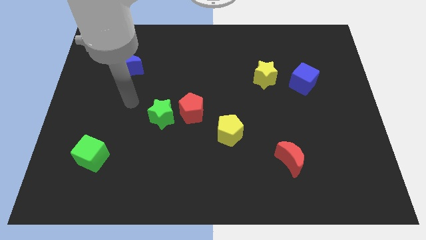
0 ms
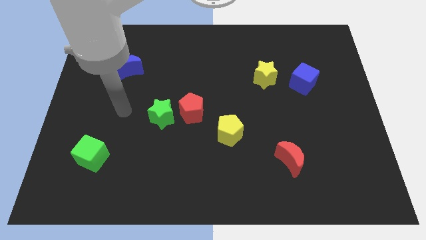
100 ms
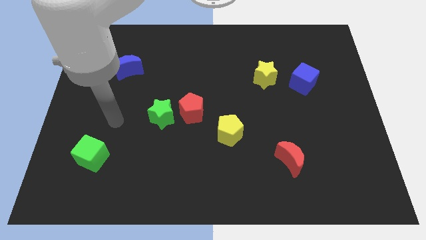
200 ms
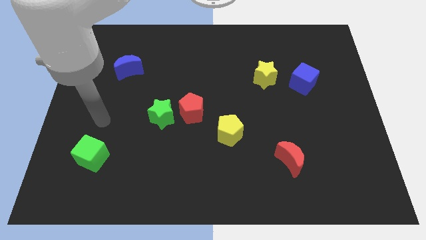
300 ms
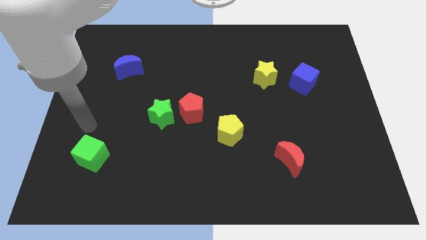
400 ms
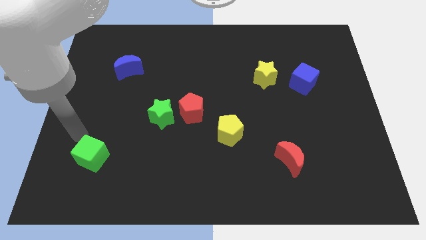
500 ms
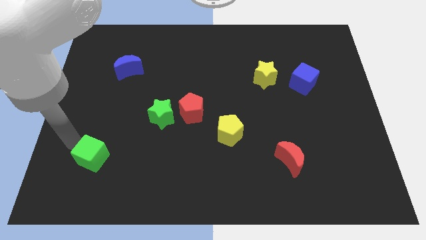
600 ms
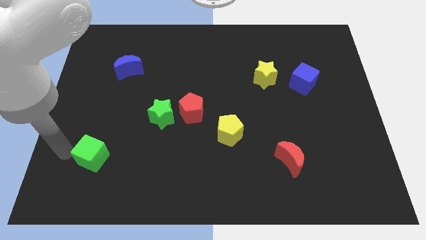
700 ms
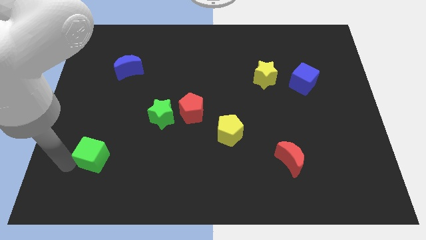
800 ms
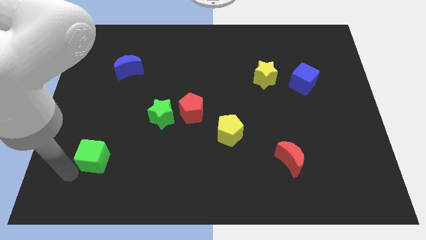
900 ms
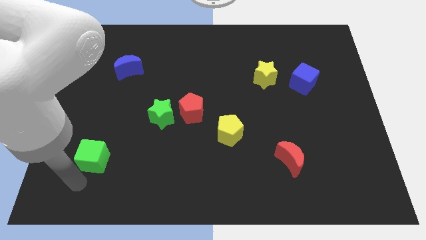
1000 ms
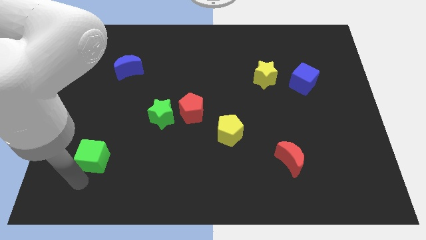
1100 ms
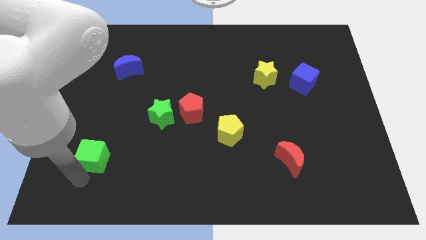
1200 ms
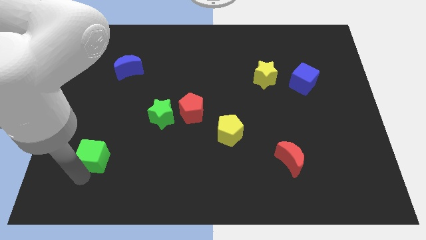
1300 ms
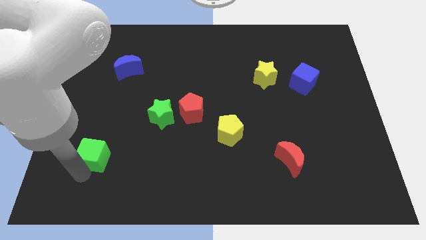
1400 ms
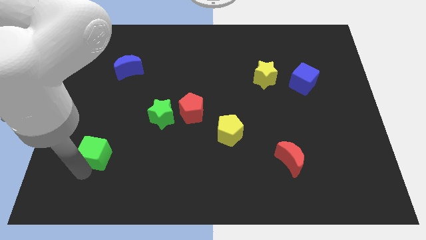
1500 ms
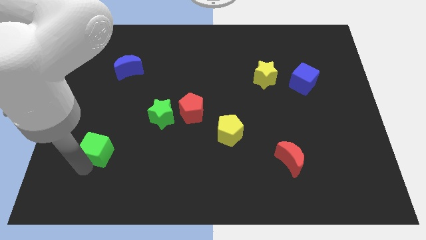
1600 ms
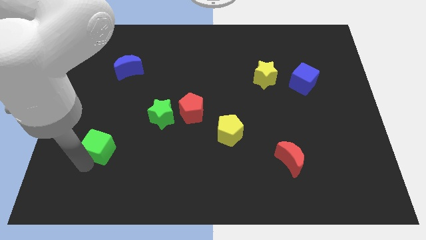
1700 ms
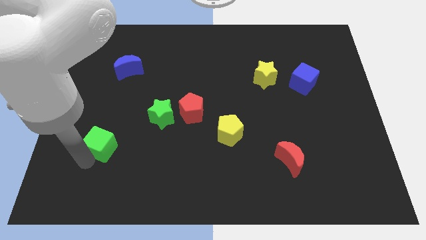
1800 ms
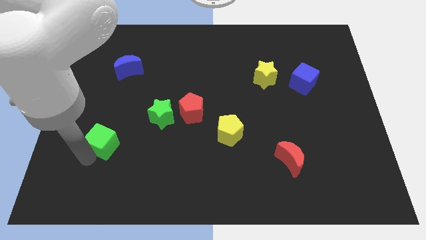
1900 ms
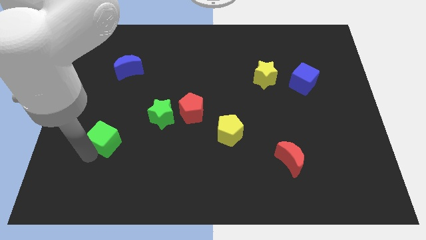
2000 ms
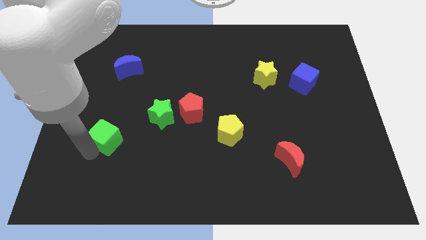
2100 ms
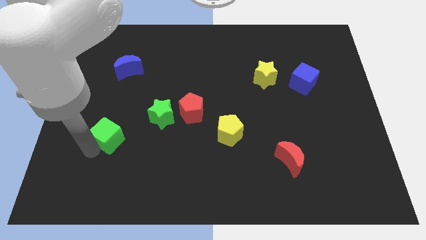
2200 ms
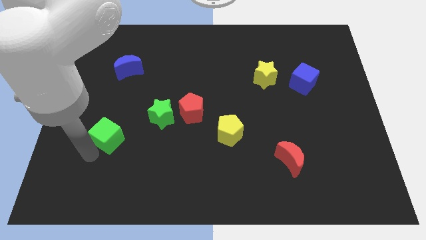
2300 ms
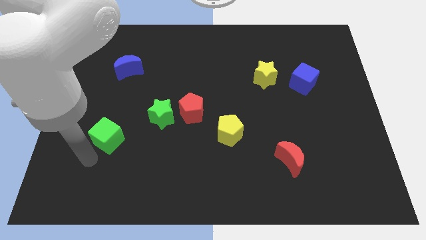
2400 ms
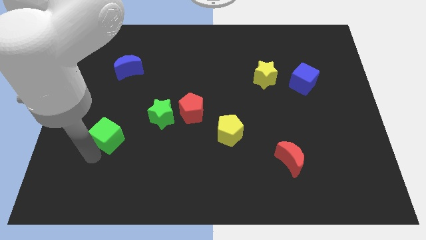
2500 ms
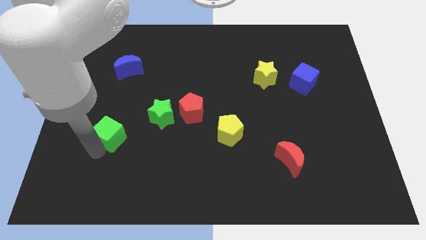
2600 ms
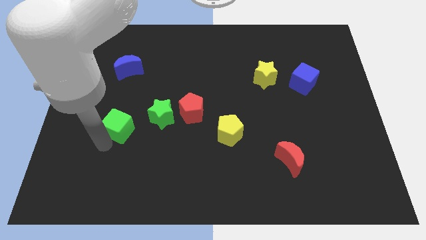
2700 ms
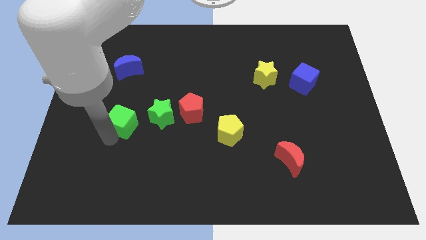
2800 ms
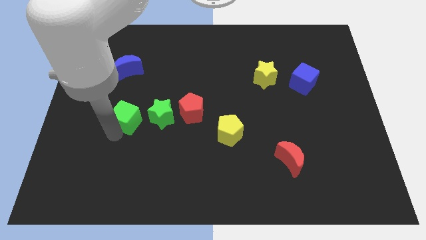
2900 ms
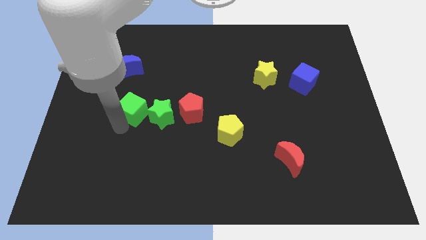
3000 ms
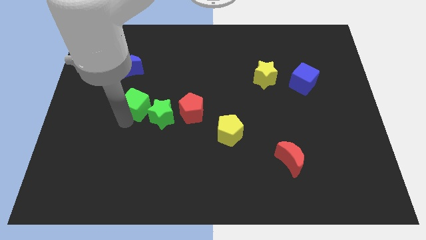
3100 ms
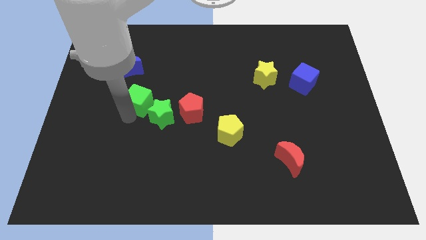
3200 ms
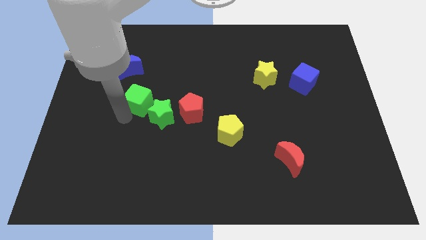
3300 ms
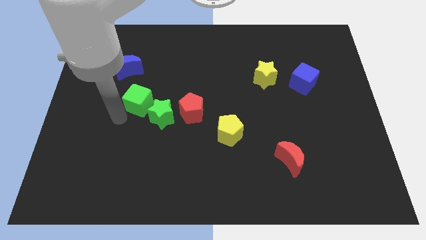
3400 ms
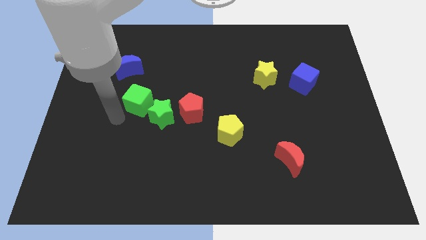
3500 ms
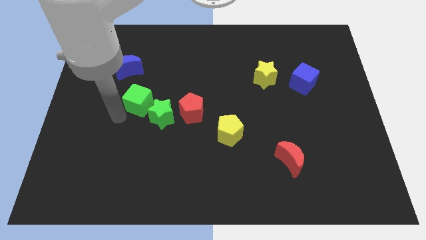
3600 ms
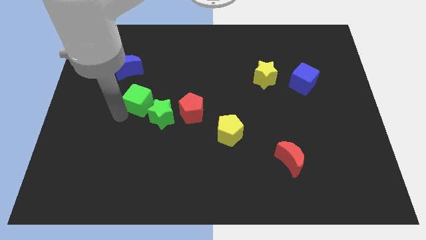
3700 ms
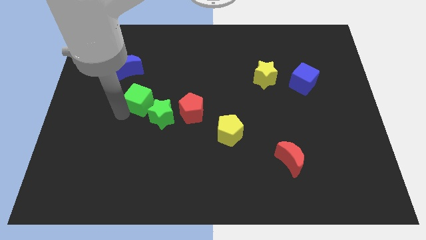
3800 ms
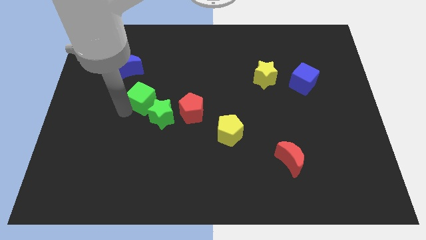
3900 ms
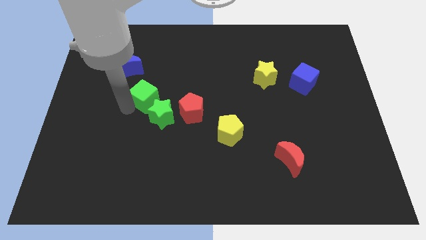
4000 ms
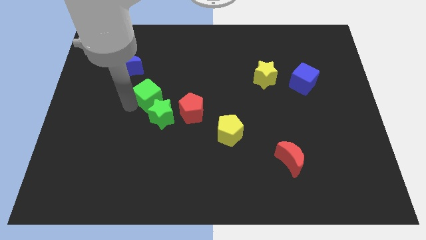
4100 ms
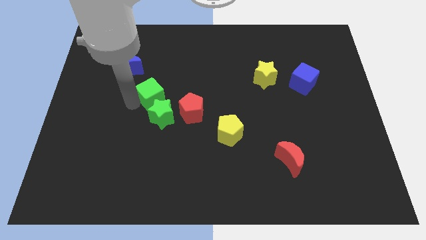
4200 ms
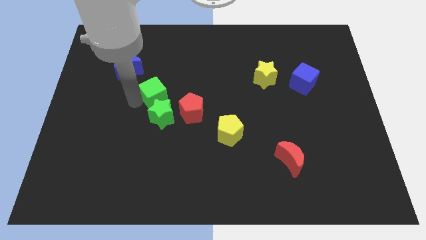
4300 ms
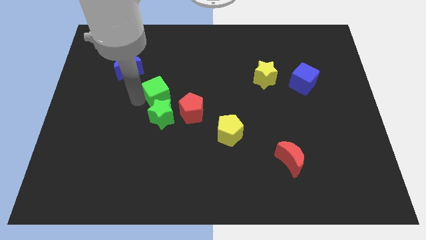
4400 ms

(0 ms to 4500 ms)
slide the green cube diagonally upwards and right

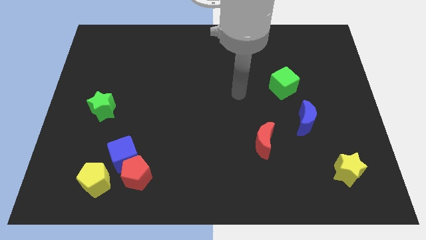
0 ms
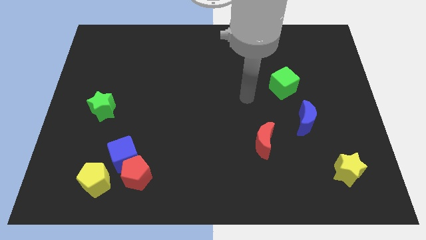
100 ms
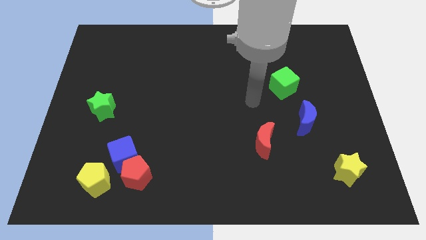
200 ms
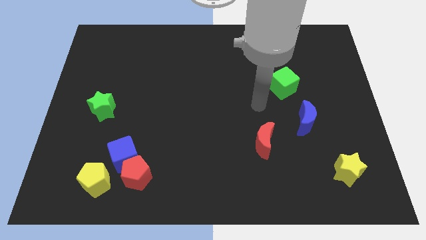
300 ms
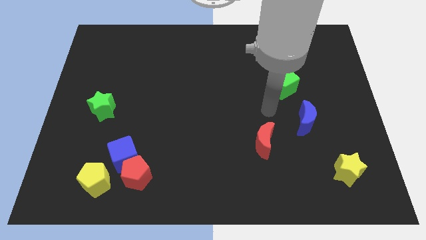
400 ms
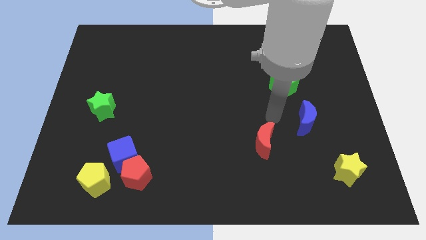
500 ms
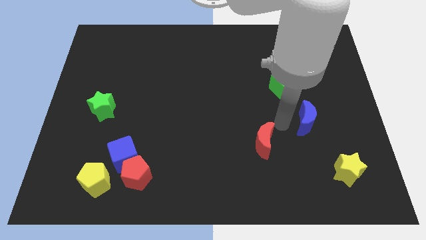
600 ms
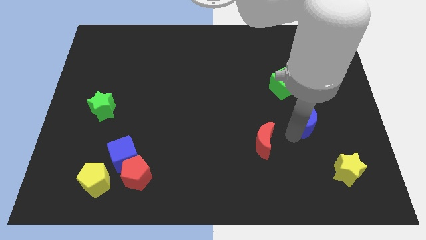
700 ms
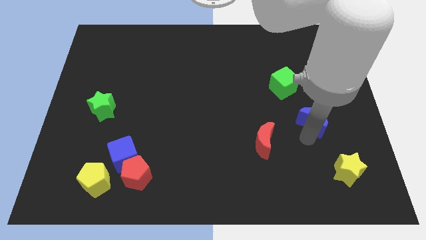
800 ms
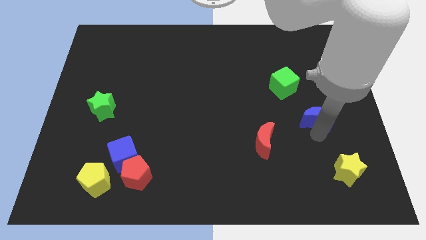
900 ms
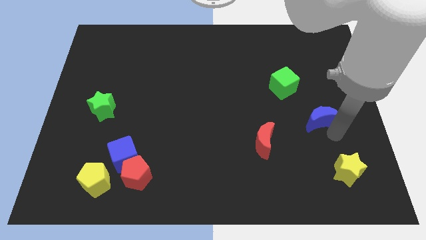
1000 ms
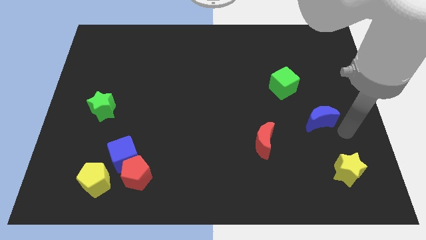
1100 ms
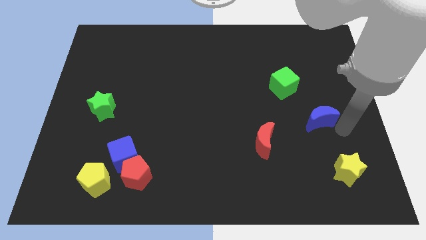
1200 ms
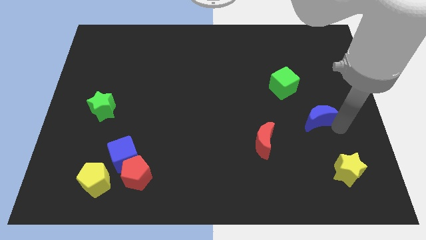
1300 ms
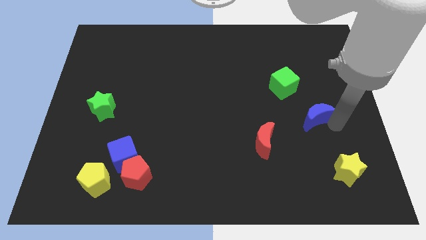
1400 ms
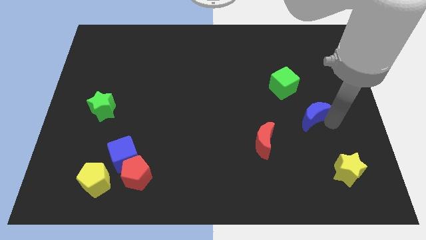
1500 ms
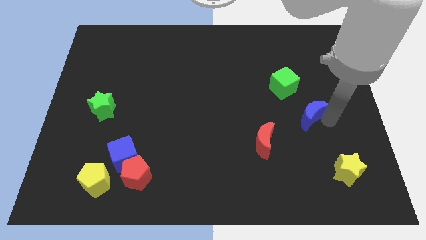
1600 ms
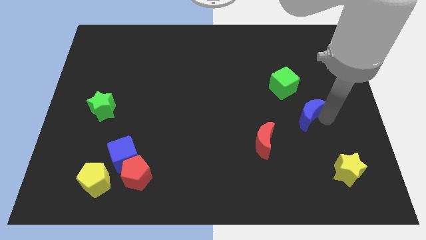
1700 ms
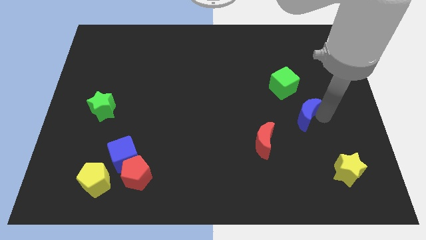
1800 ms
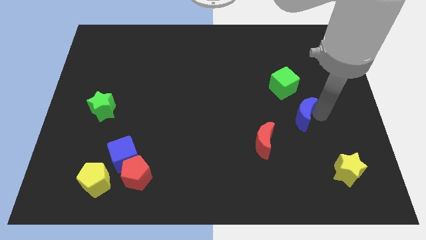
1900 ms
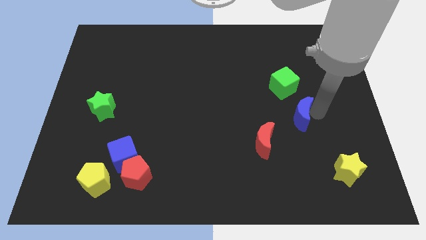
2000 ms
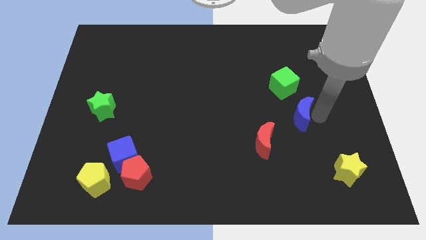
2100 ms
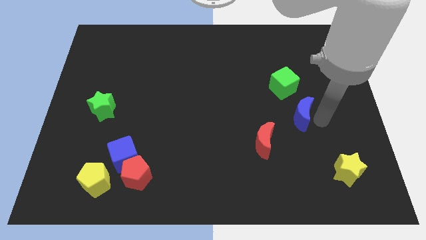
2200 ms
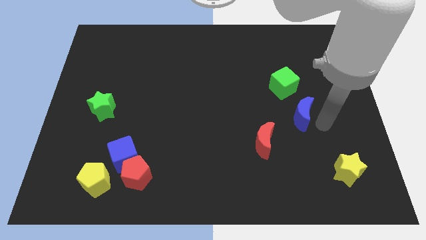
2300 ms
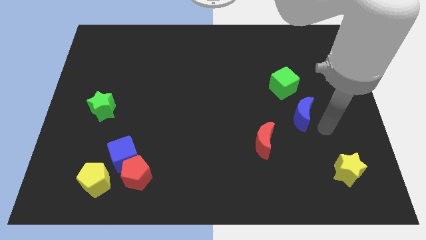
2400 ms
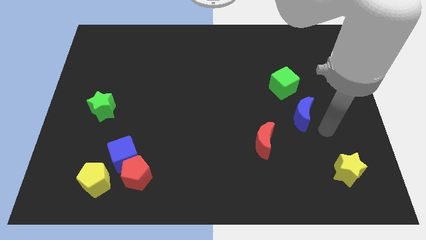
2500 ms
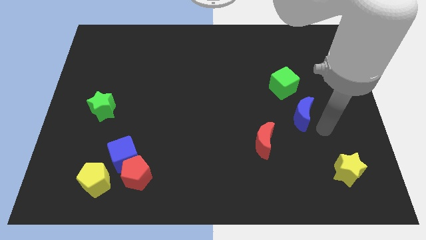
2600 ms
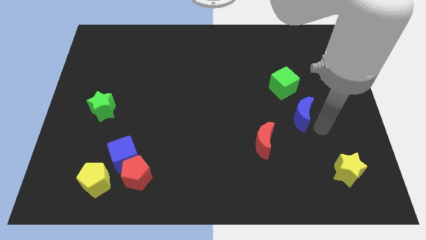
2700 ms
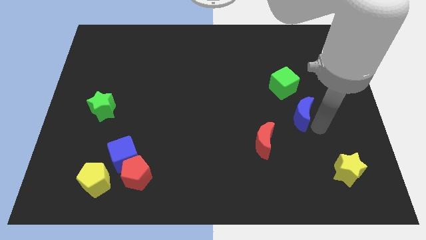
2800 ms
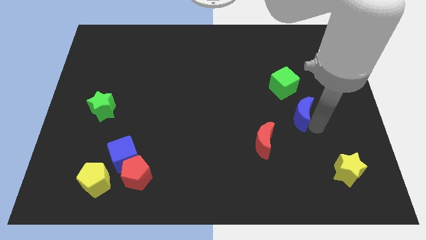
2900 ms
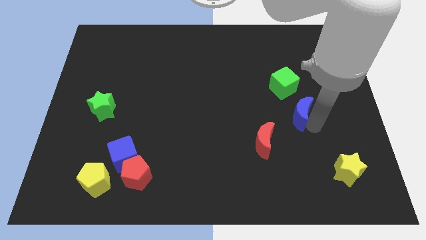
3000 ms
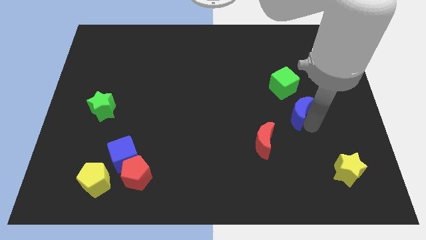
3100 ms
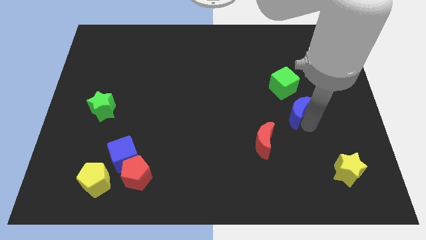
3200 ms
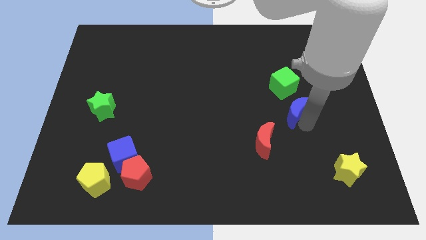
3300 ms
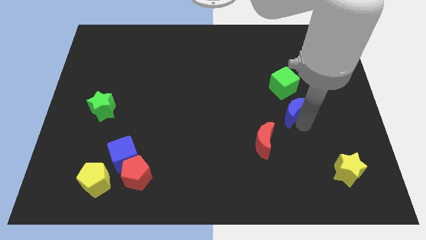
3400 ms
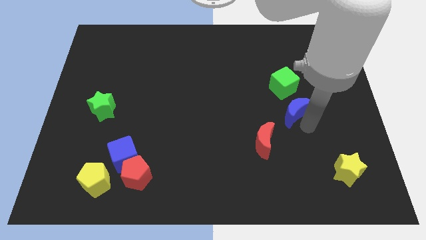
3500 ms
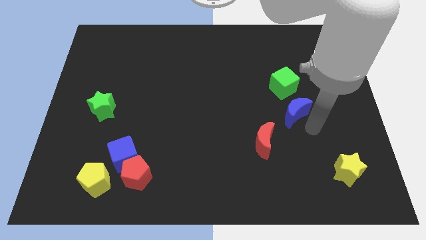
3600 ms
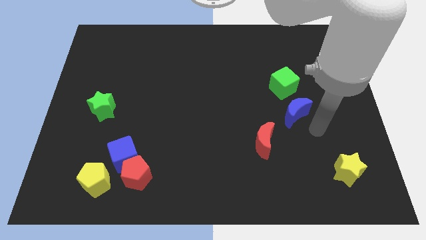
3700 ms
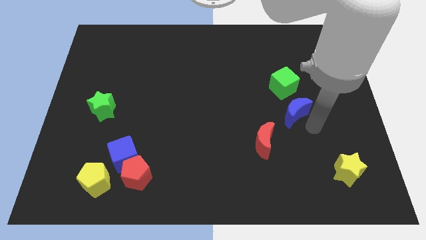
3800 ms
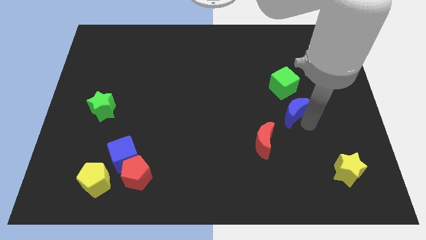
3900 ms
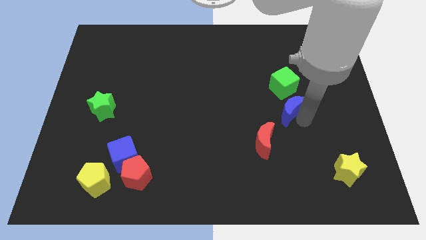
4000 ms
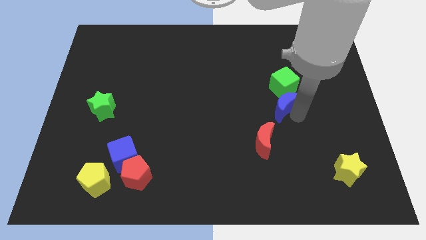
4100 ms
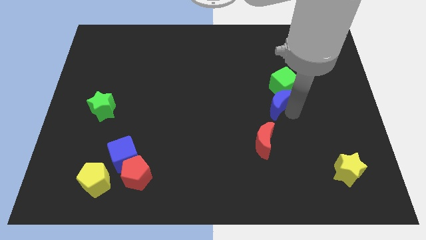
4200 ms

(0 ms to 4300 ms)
slide the blue moon upwards and to the left a little bit
